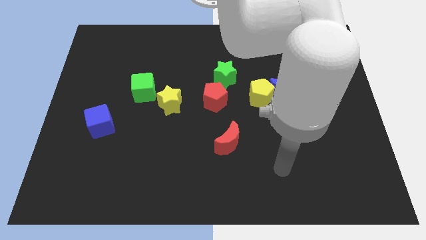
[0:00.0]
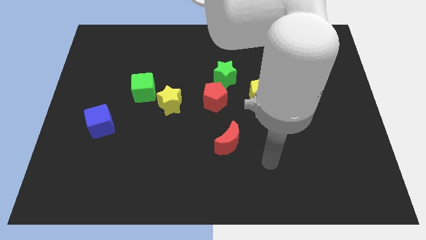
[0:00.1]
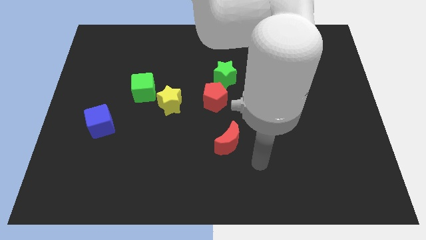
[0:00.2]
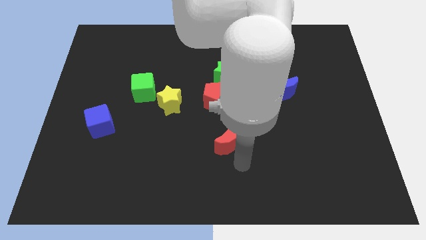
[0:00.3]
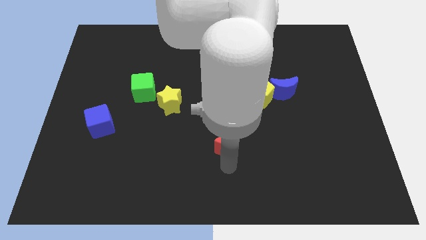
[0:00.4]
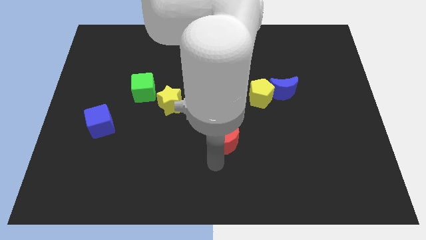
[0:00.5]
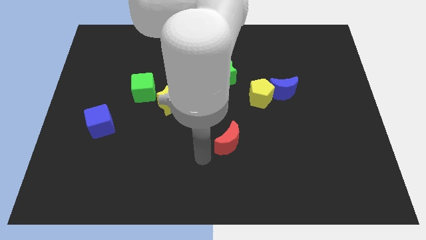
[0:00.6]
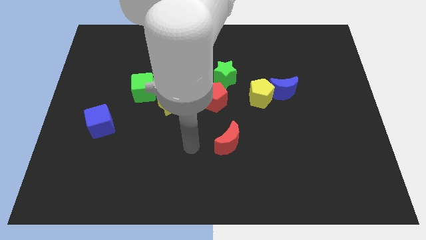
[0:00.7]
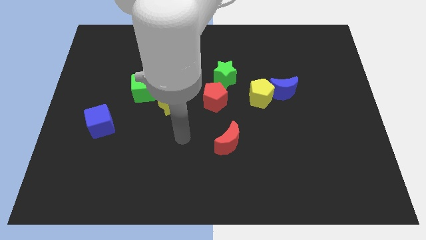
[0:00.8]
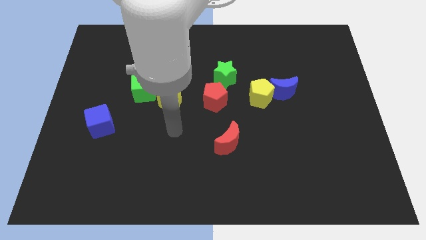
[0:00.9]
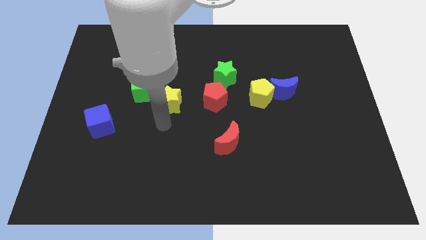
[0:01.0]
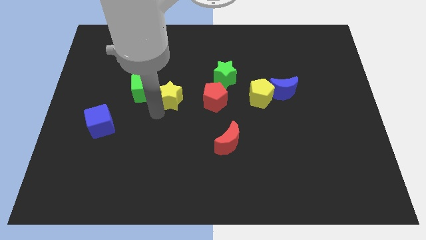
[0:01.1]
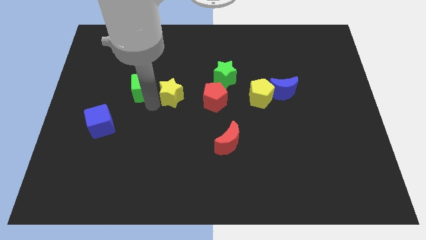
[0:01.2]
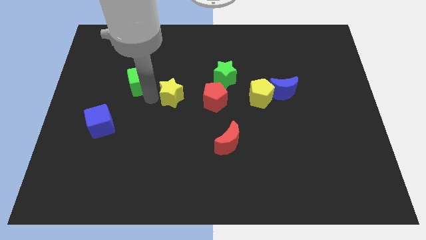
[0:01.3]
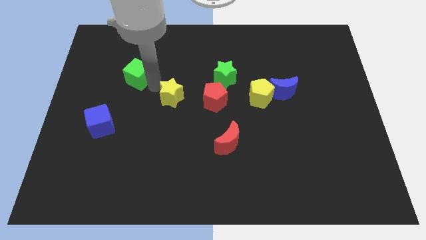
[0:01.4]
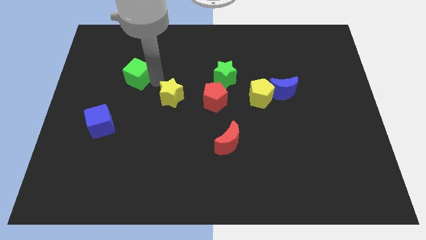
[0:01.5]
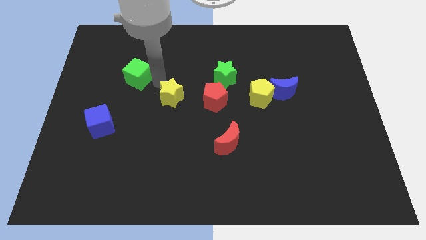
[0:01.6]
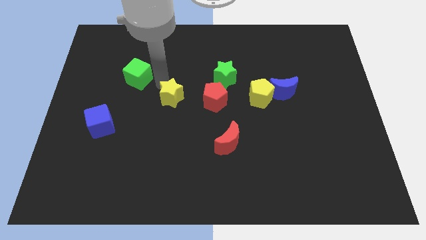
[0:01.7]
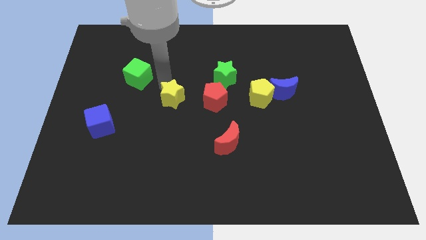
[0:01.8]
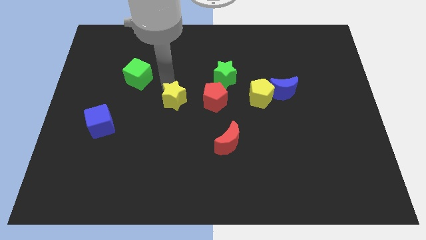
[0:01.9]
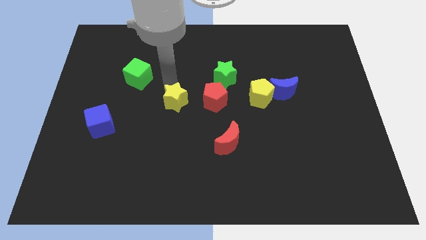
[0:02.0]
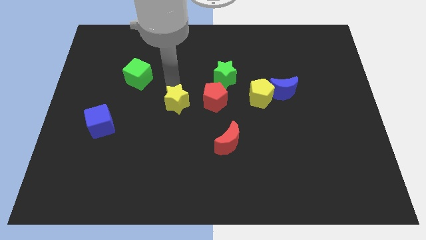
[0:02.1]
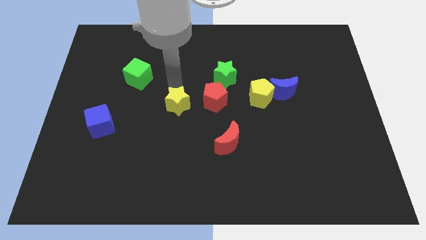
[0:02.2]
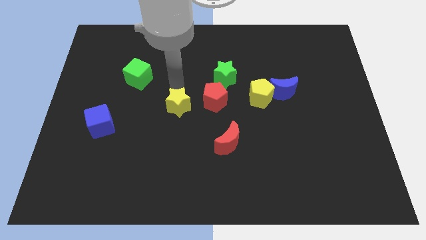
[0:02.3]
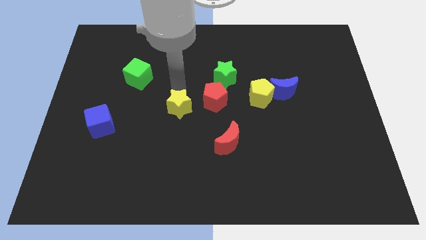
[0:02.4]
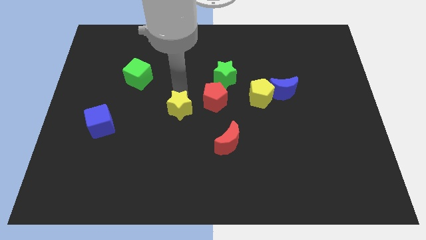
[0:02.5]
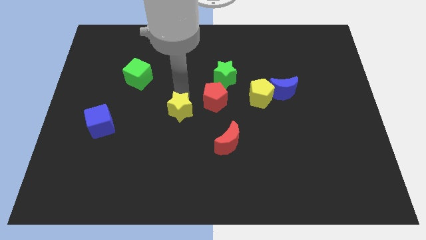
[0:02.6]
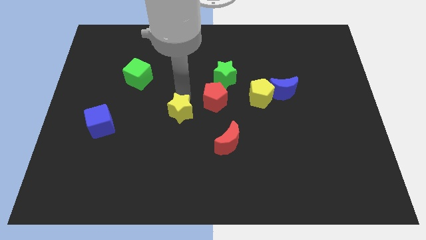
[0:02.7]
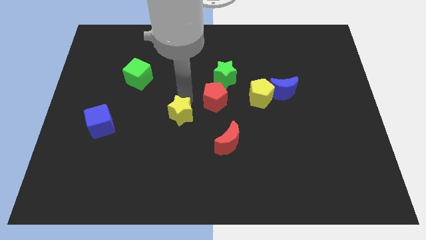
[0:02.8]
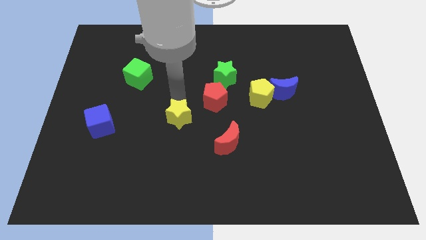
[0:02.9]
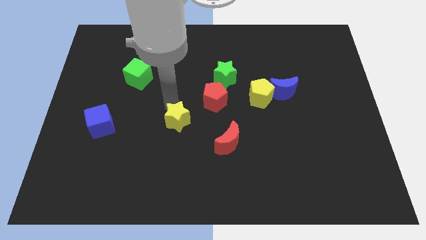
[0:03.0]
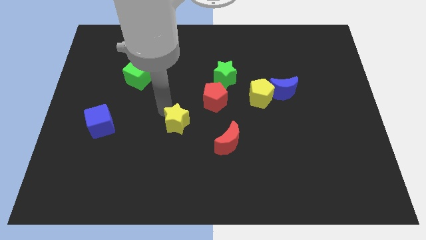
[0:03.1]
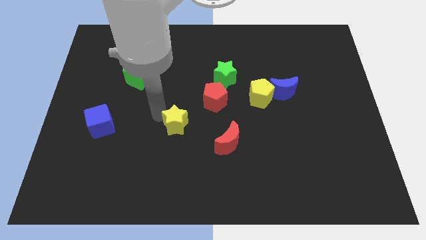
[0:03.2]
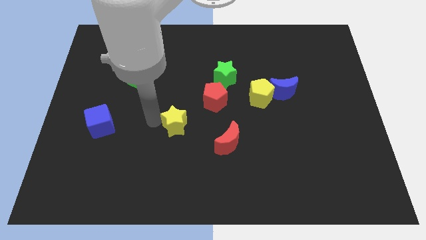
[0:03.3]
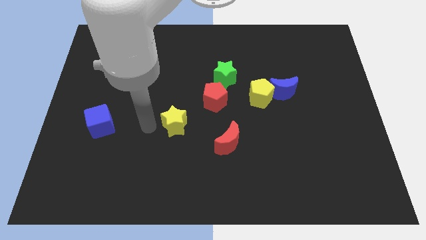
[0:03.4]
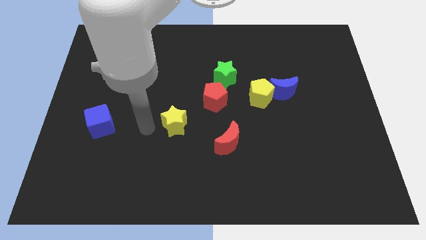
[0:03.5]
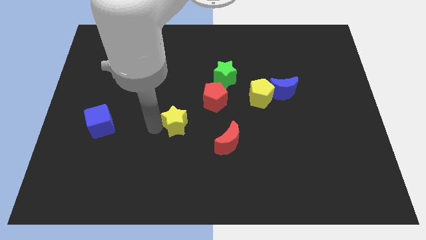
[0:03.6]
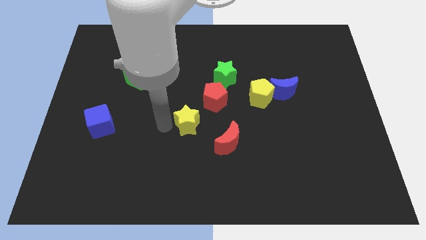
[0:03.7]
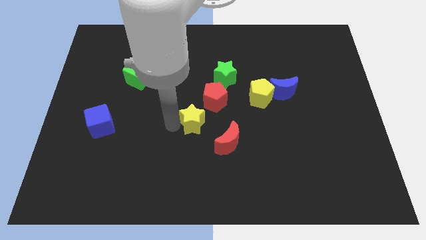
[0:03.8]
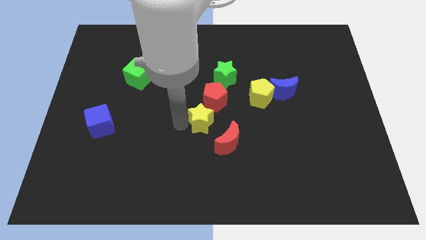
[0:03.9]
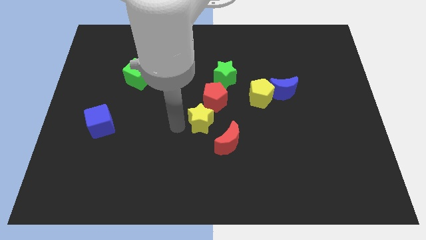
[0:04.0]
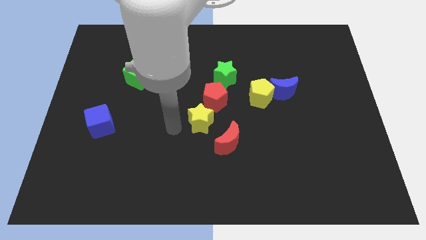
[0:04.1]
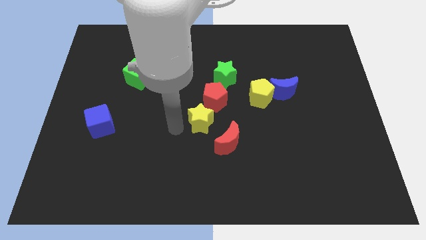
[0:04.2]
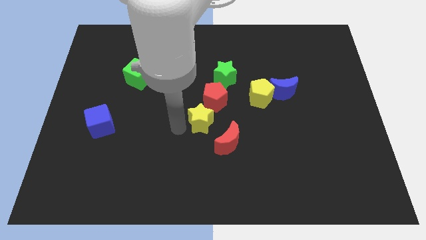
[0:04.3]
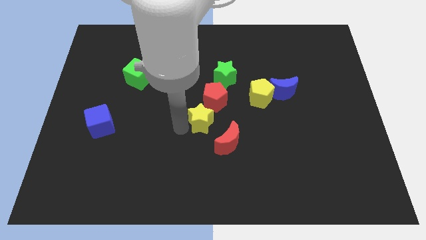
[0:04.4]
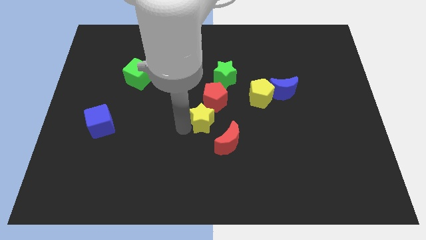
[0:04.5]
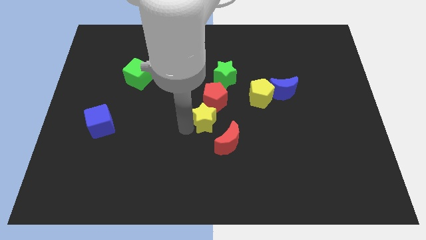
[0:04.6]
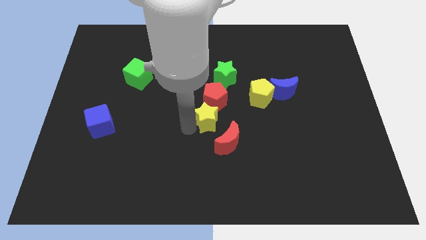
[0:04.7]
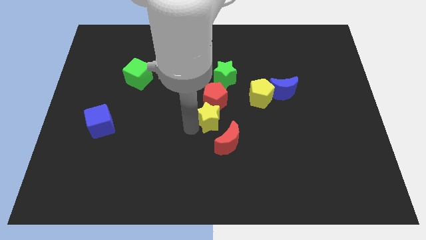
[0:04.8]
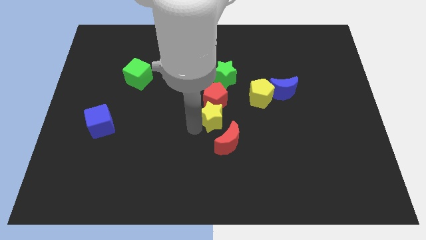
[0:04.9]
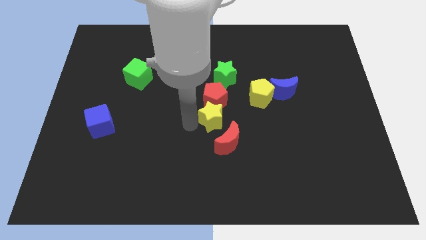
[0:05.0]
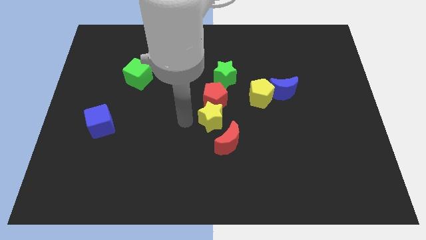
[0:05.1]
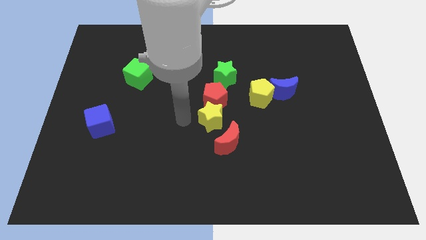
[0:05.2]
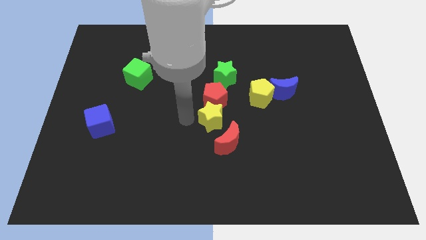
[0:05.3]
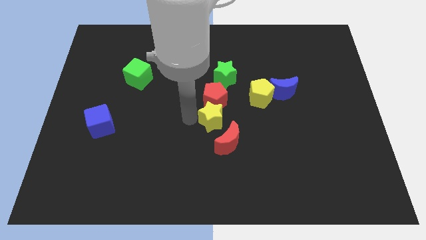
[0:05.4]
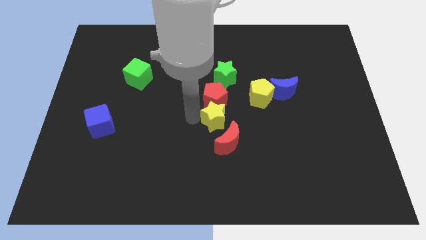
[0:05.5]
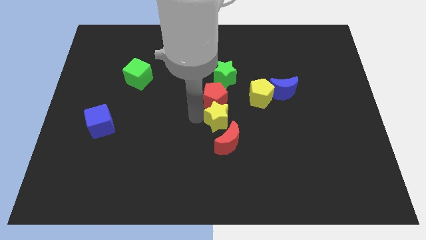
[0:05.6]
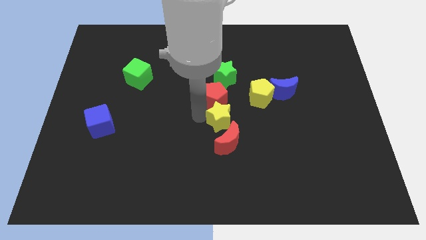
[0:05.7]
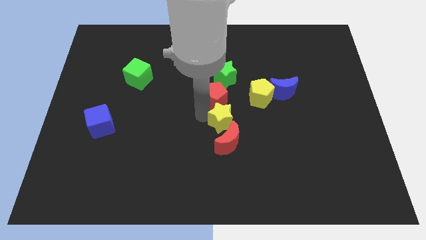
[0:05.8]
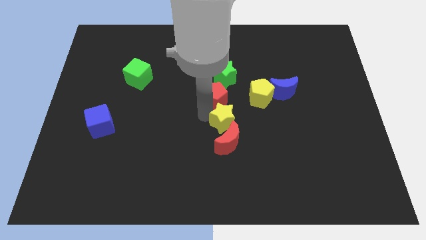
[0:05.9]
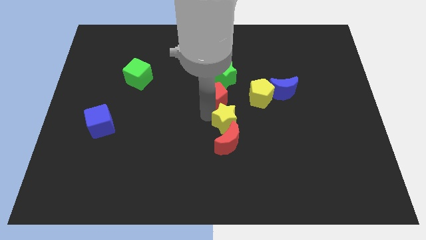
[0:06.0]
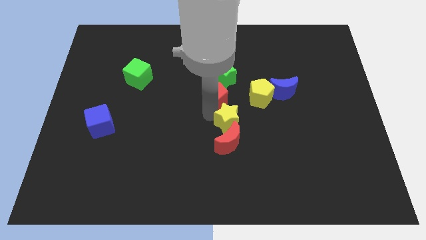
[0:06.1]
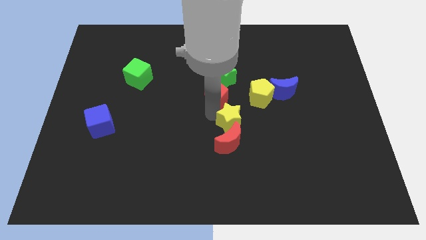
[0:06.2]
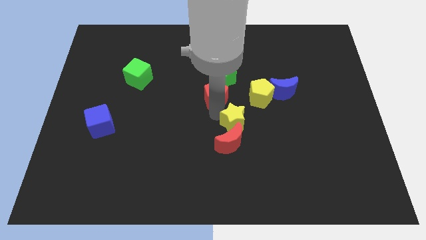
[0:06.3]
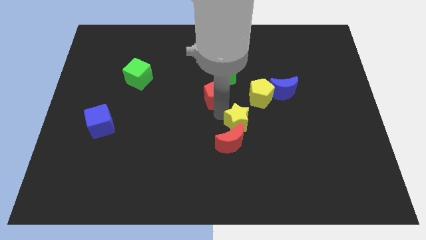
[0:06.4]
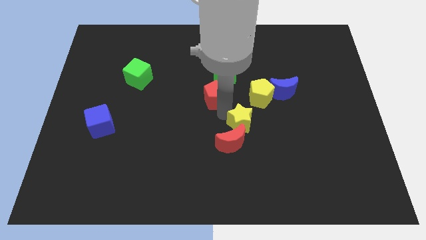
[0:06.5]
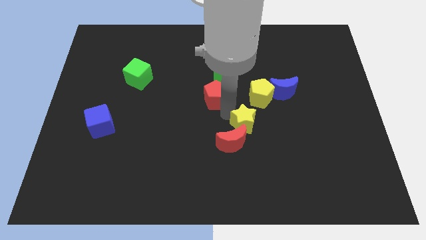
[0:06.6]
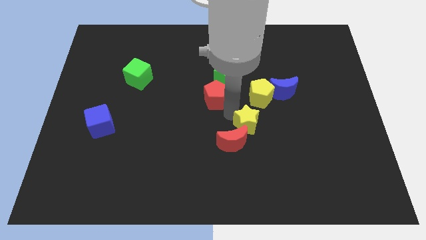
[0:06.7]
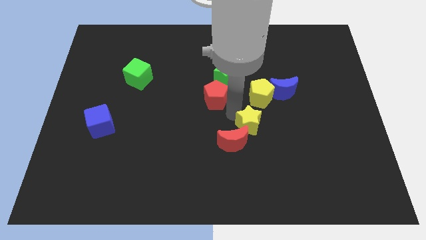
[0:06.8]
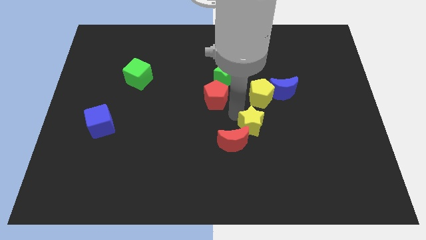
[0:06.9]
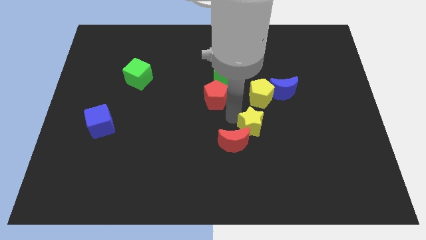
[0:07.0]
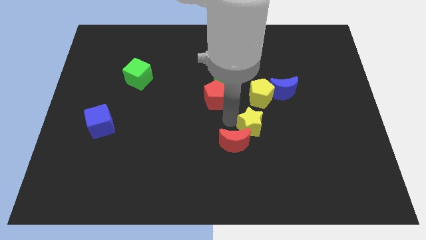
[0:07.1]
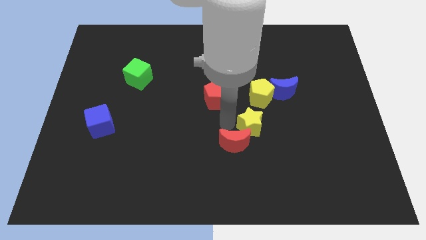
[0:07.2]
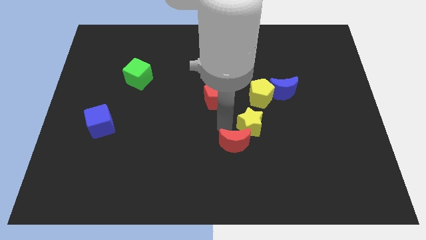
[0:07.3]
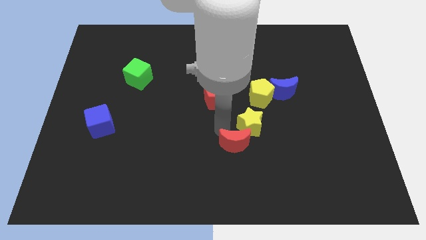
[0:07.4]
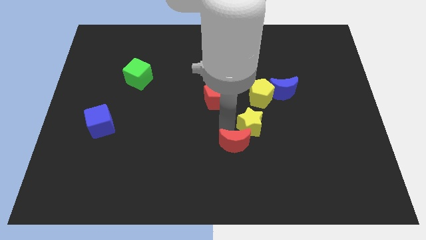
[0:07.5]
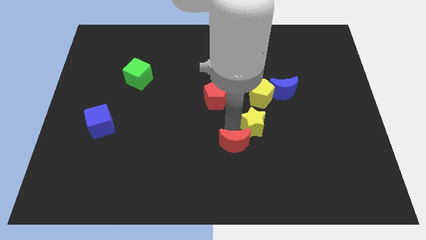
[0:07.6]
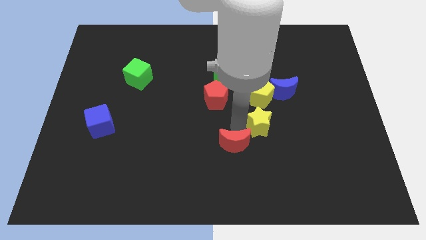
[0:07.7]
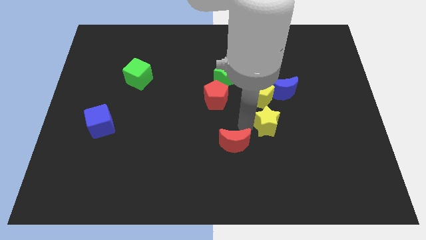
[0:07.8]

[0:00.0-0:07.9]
put the yellow star to the bottom side of the blue moon
